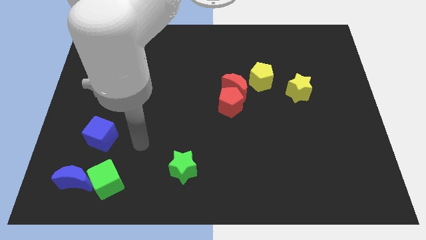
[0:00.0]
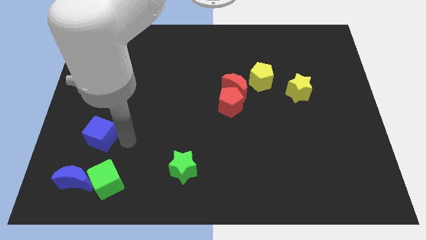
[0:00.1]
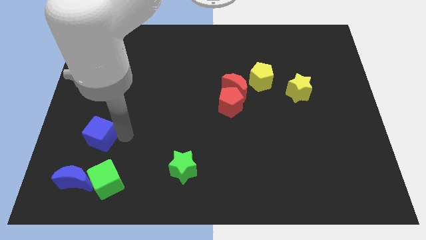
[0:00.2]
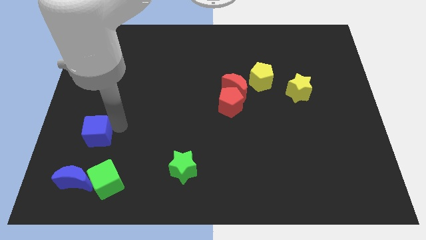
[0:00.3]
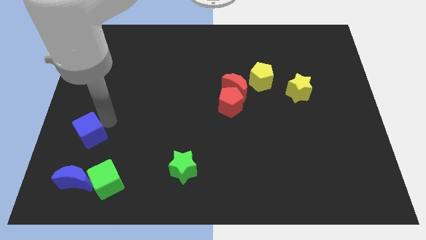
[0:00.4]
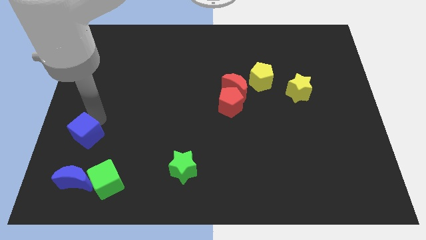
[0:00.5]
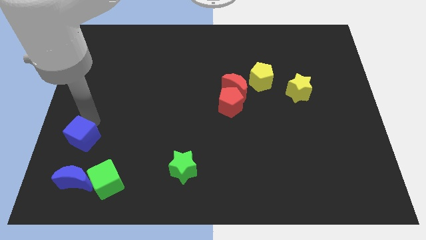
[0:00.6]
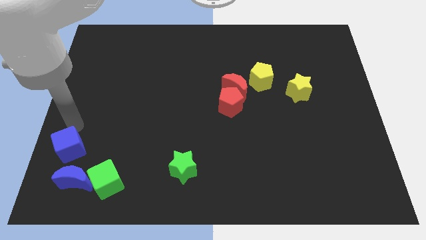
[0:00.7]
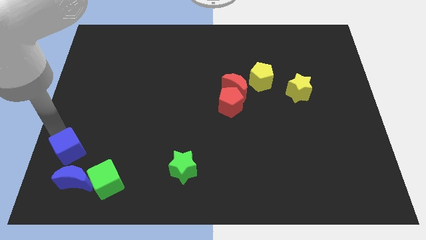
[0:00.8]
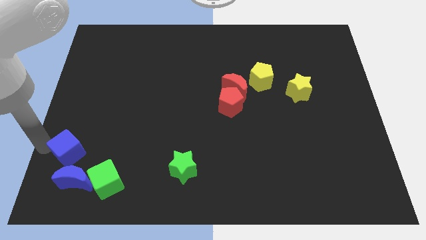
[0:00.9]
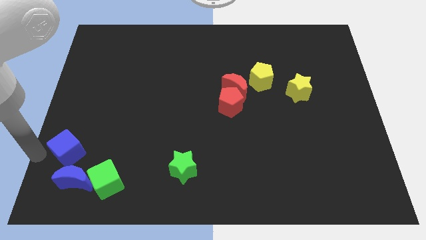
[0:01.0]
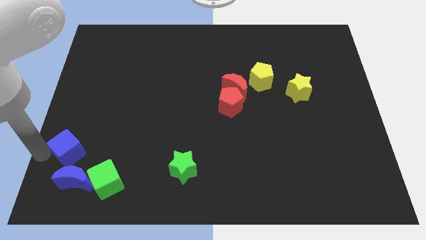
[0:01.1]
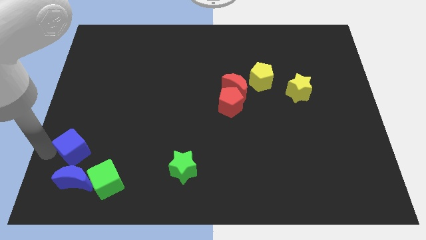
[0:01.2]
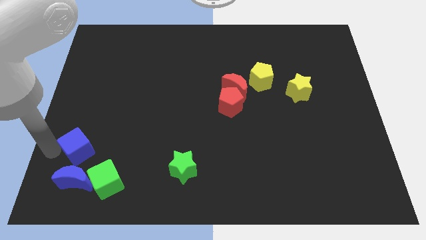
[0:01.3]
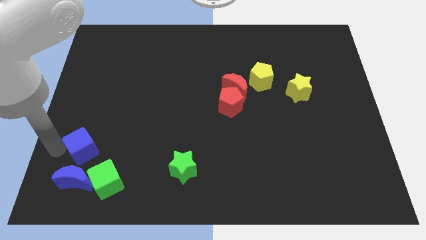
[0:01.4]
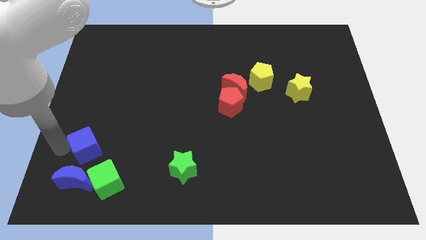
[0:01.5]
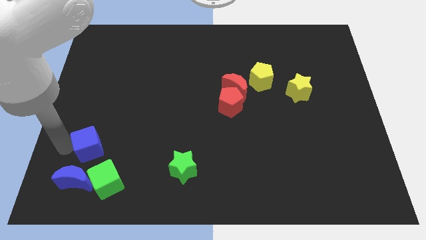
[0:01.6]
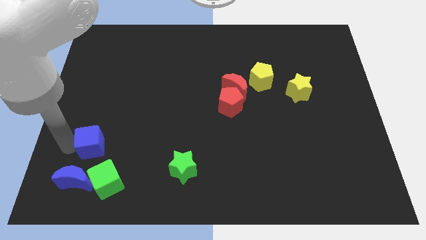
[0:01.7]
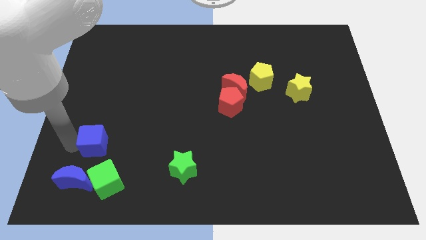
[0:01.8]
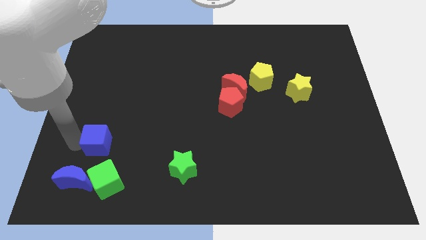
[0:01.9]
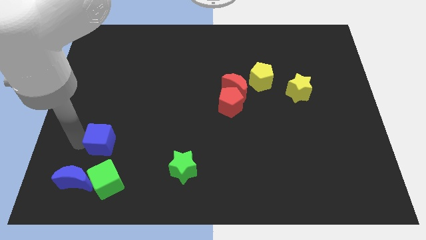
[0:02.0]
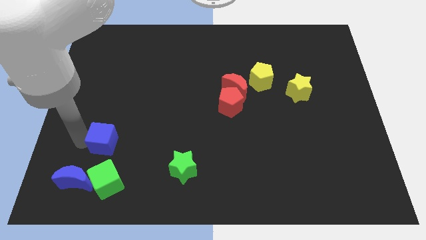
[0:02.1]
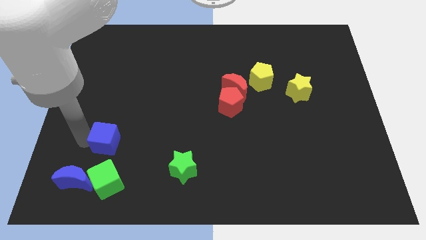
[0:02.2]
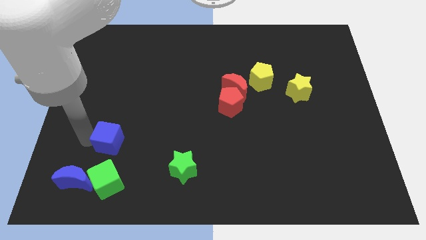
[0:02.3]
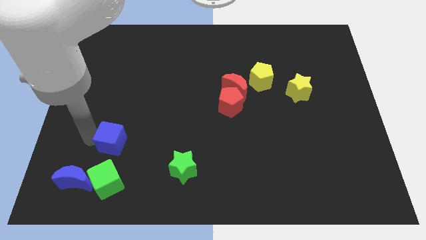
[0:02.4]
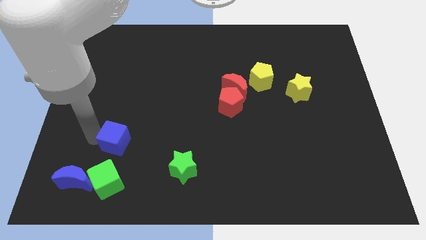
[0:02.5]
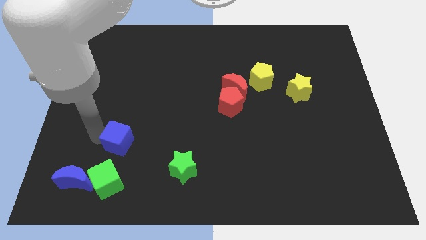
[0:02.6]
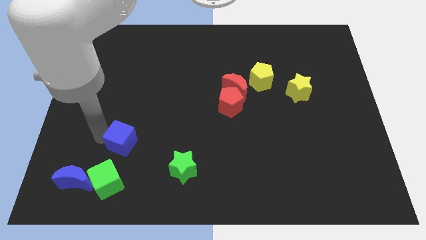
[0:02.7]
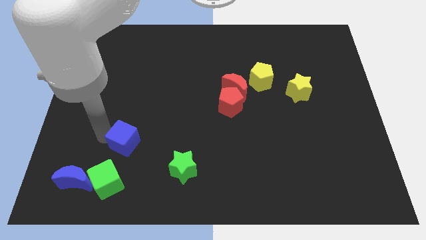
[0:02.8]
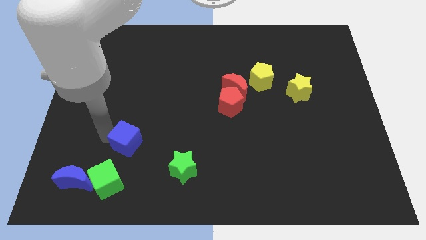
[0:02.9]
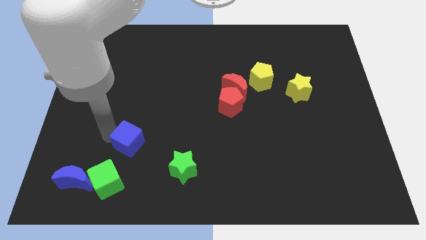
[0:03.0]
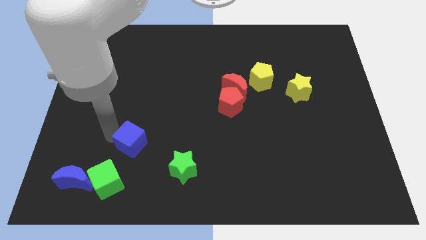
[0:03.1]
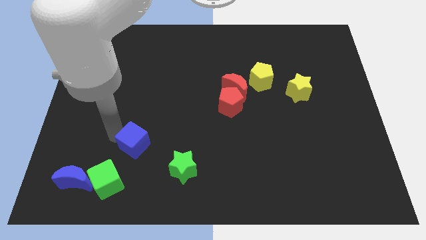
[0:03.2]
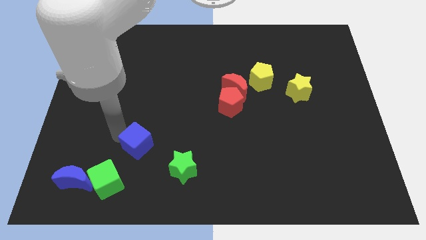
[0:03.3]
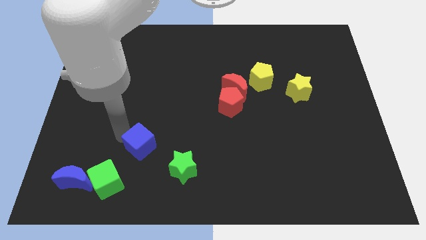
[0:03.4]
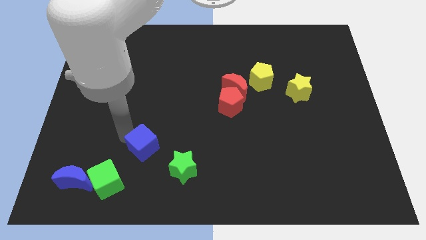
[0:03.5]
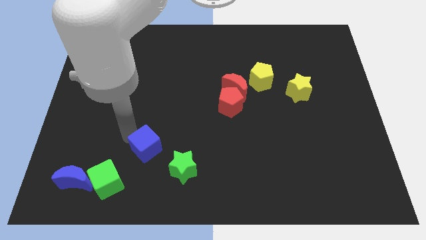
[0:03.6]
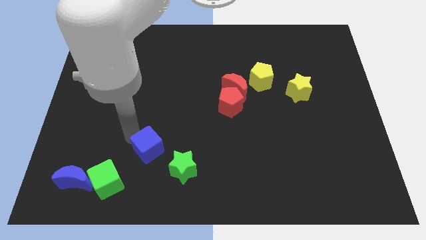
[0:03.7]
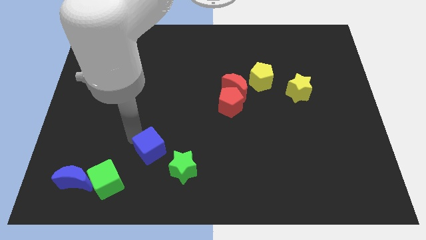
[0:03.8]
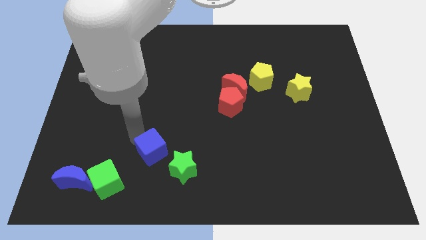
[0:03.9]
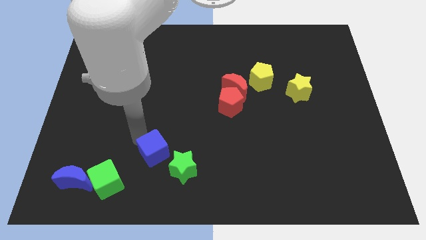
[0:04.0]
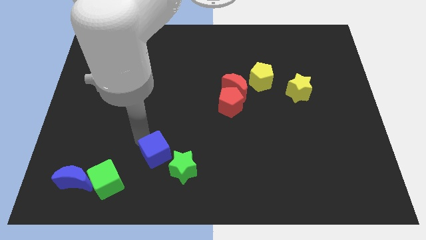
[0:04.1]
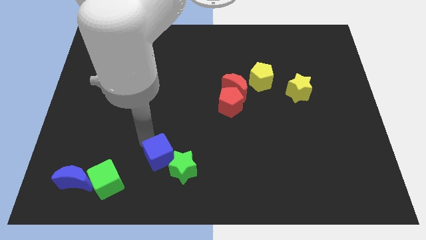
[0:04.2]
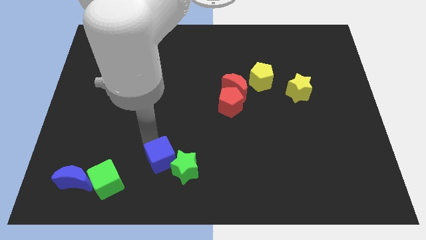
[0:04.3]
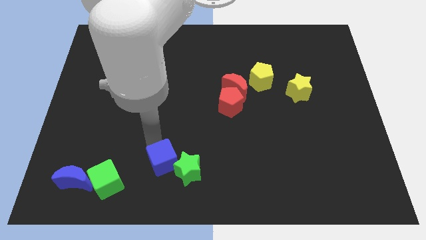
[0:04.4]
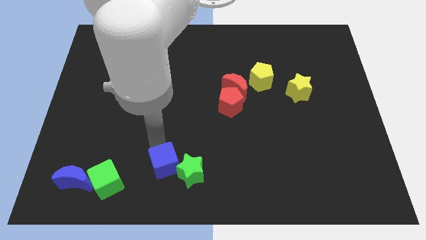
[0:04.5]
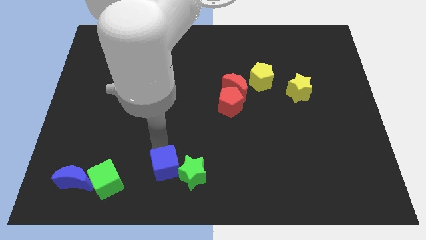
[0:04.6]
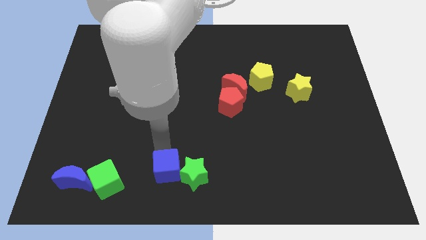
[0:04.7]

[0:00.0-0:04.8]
move the blue cube to the bottom

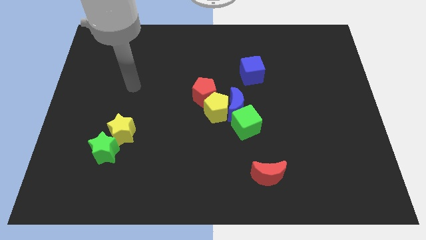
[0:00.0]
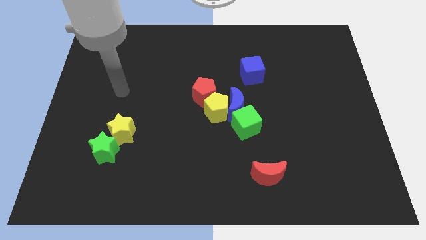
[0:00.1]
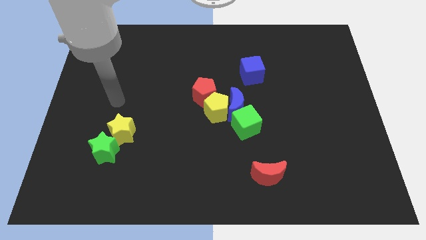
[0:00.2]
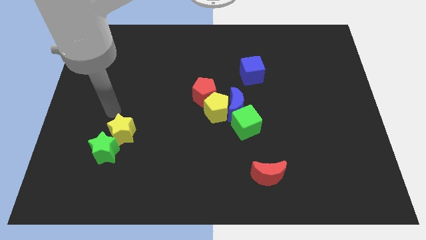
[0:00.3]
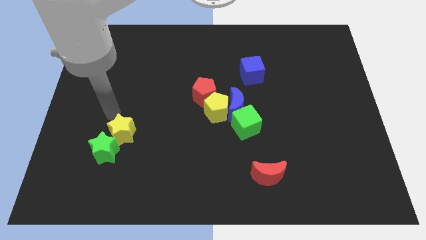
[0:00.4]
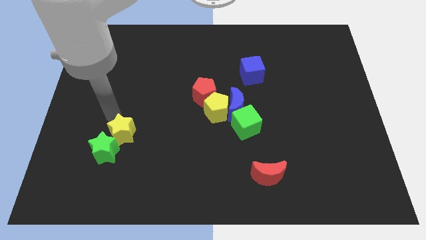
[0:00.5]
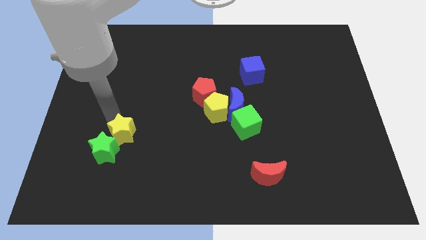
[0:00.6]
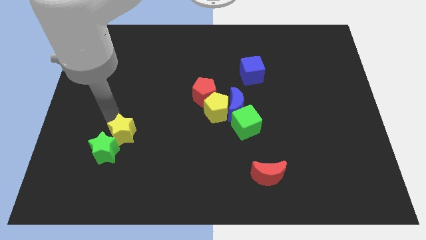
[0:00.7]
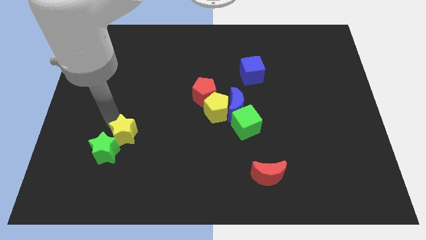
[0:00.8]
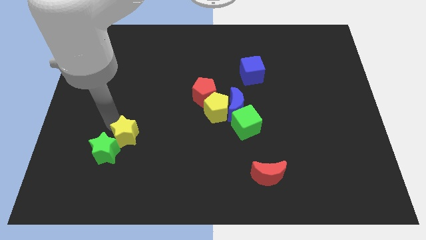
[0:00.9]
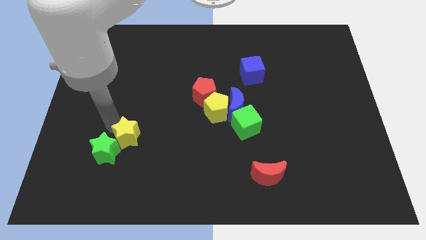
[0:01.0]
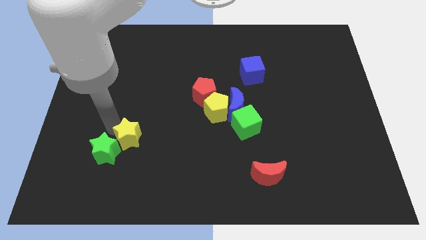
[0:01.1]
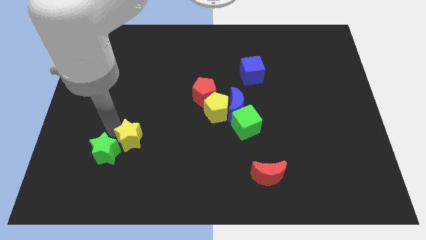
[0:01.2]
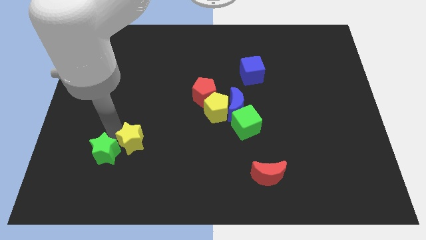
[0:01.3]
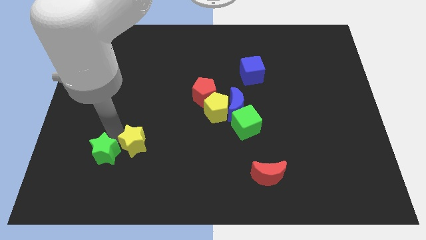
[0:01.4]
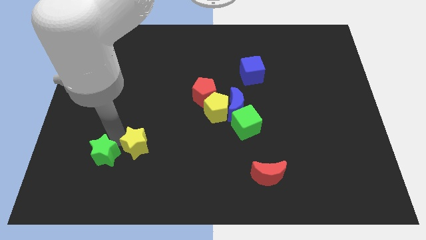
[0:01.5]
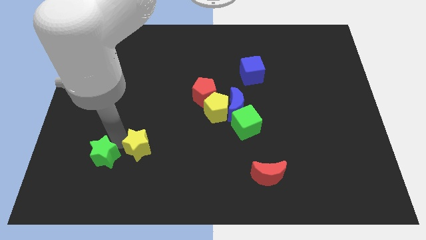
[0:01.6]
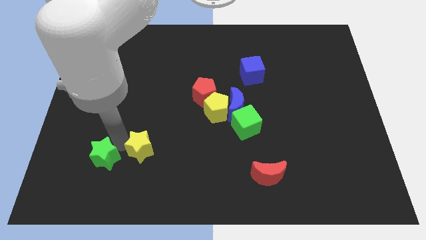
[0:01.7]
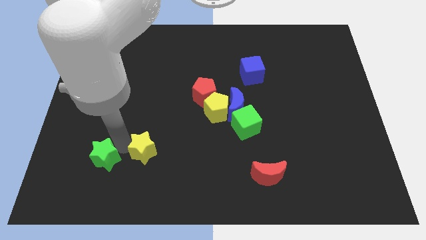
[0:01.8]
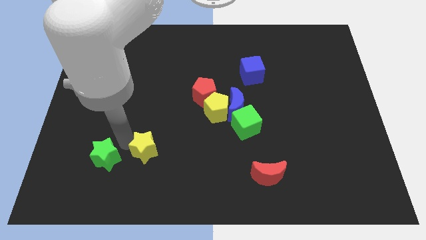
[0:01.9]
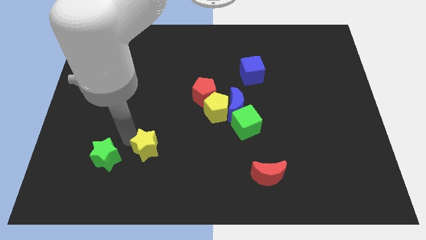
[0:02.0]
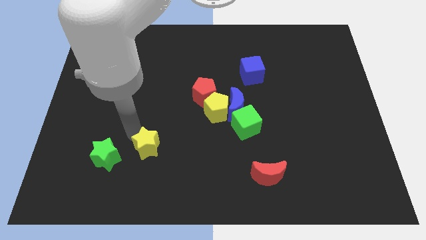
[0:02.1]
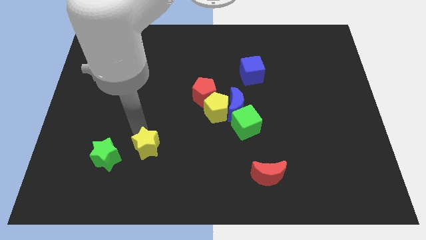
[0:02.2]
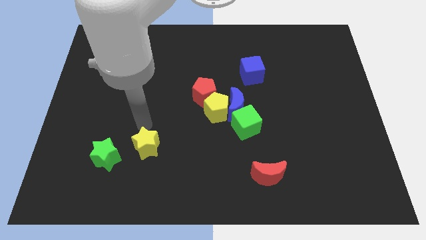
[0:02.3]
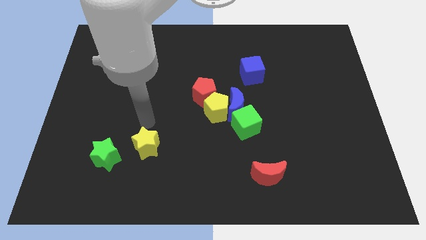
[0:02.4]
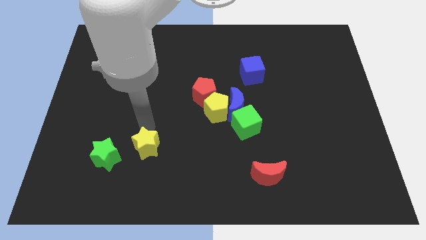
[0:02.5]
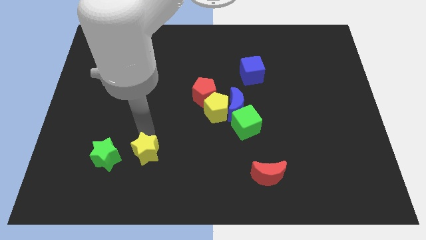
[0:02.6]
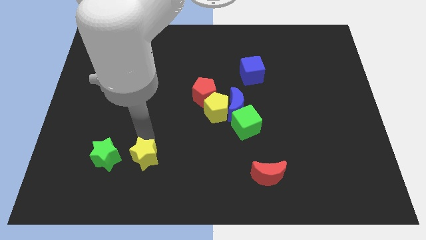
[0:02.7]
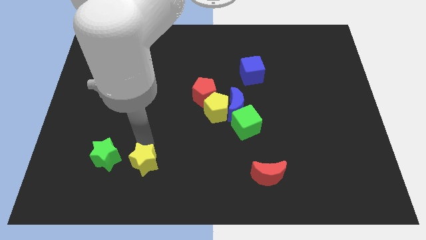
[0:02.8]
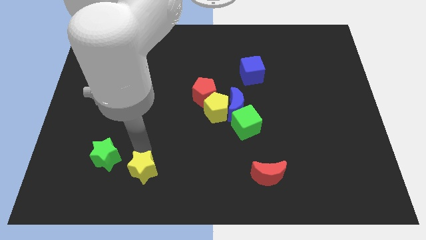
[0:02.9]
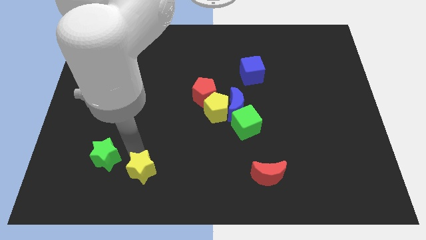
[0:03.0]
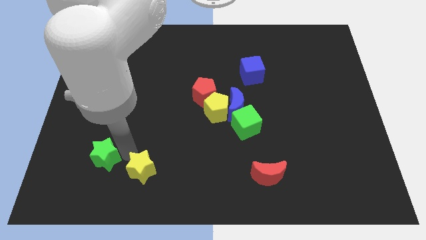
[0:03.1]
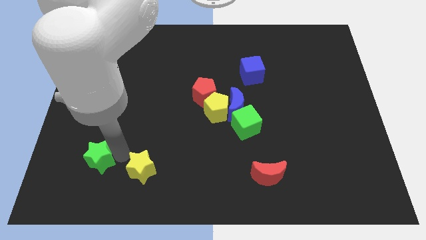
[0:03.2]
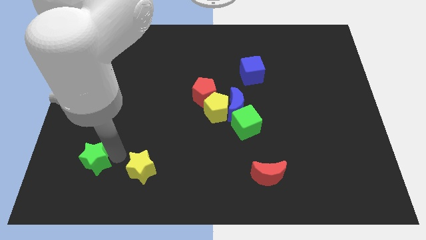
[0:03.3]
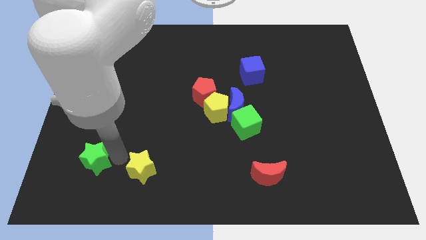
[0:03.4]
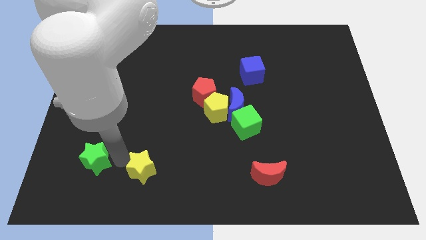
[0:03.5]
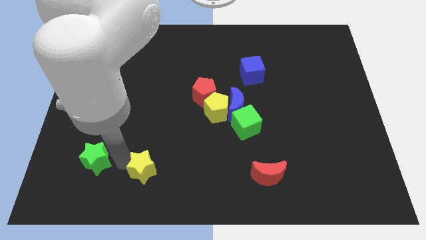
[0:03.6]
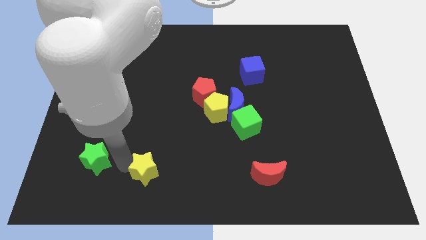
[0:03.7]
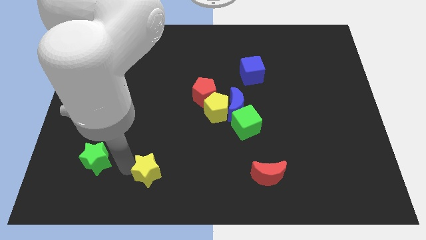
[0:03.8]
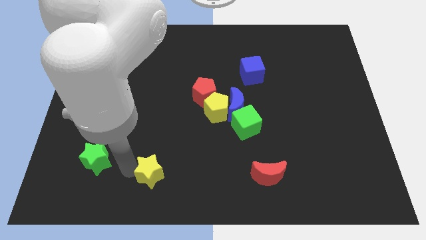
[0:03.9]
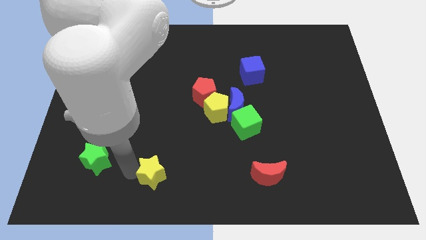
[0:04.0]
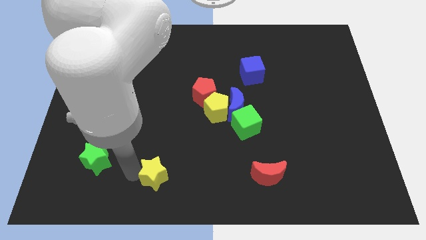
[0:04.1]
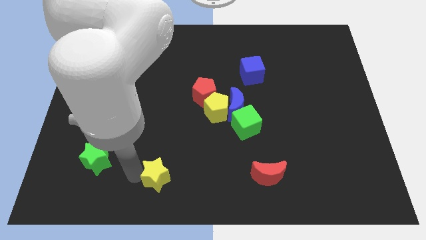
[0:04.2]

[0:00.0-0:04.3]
push the yellow star to the bottom side
